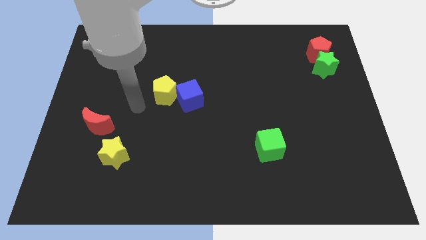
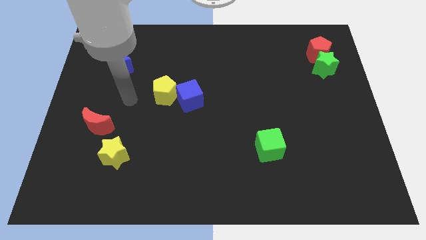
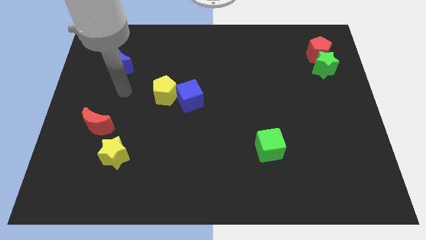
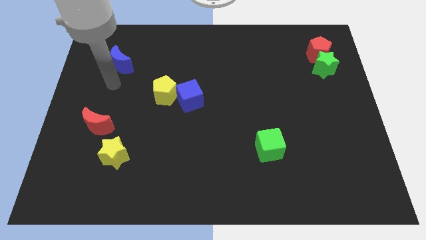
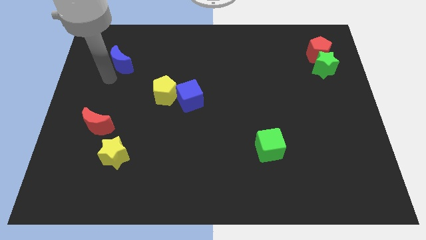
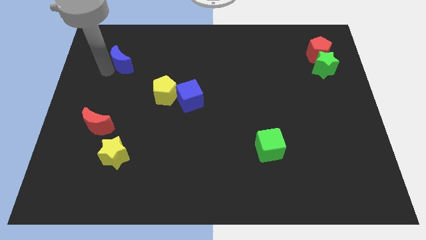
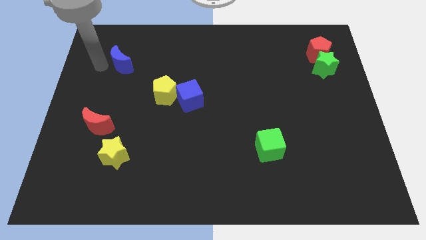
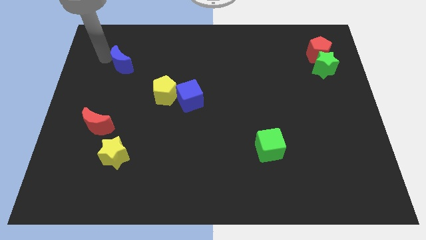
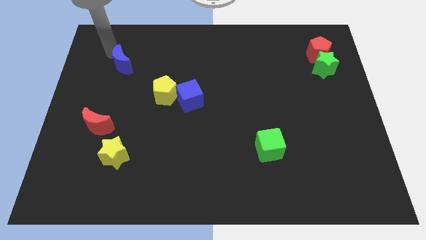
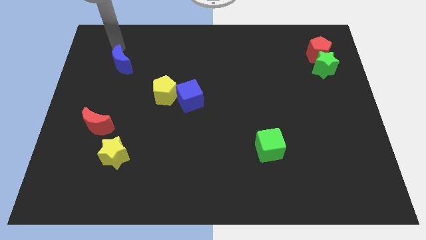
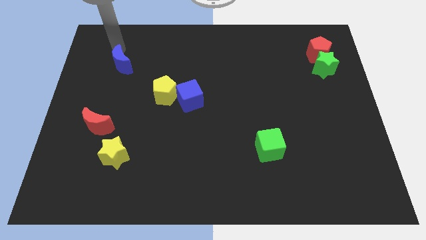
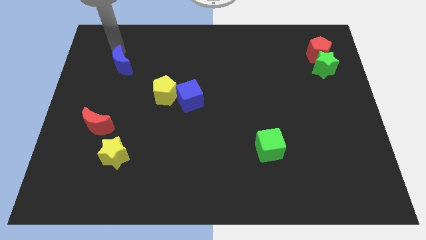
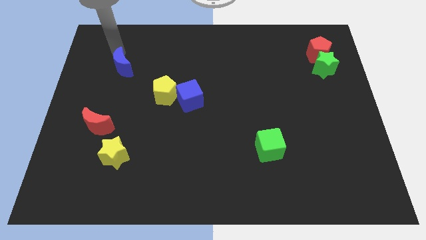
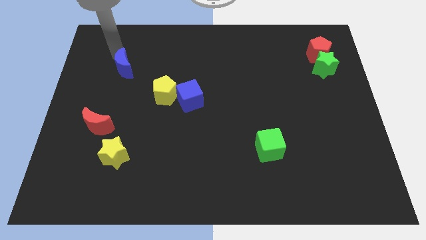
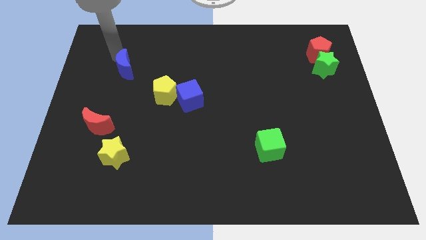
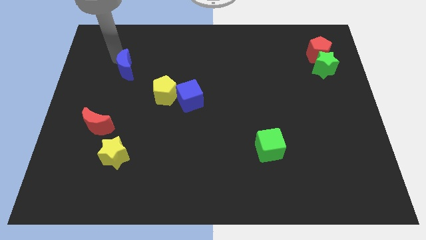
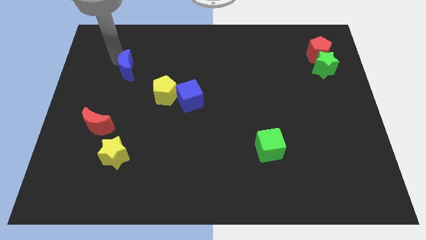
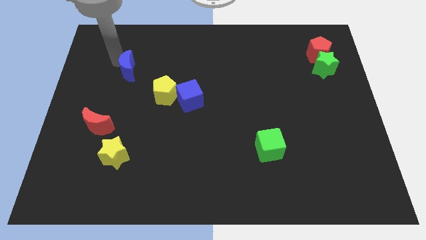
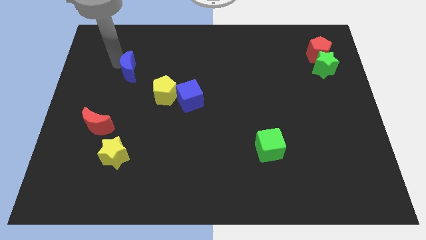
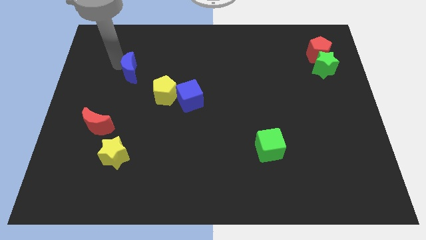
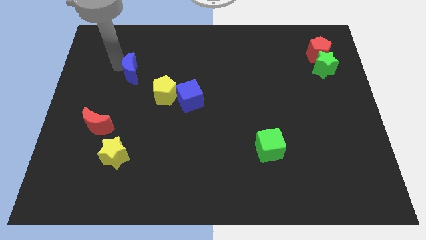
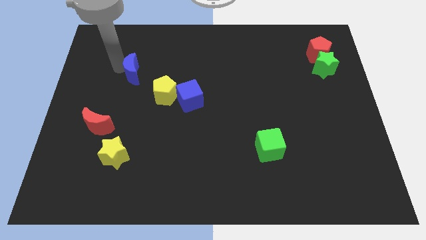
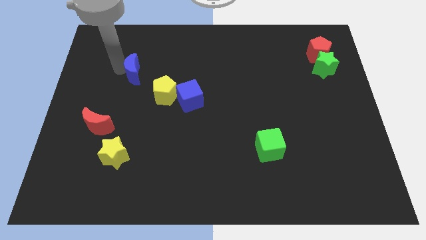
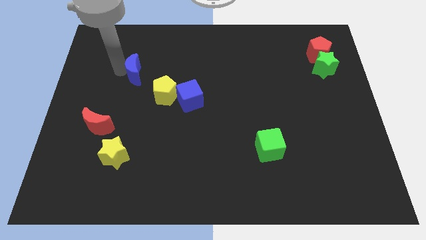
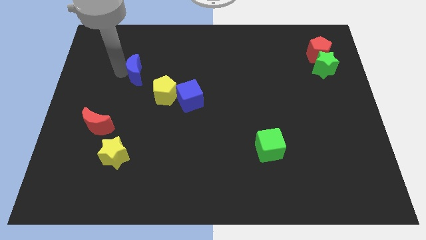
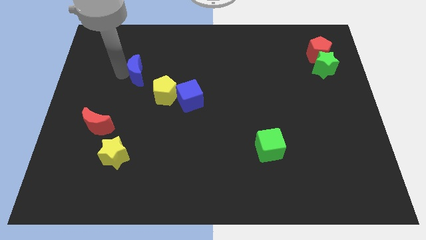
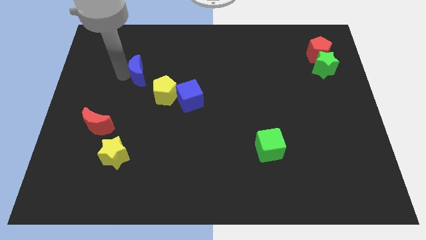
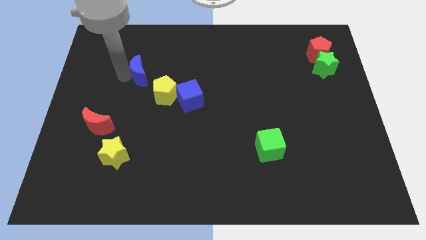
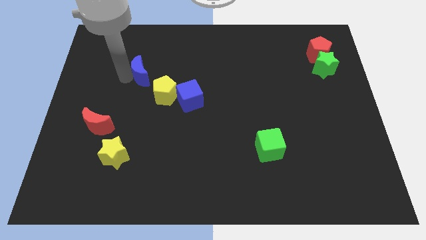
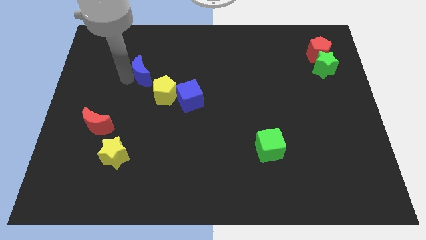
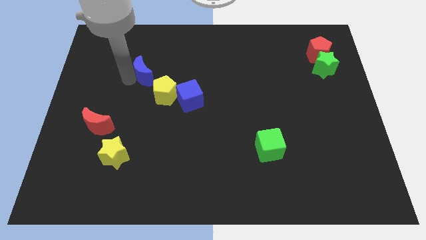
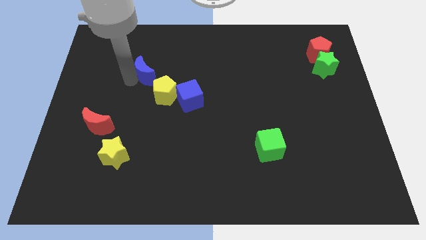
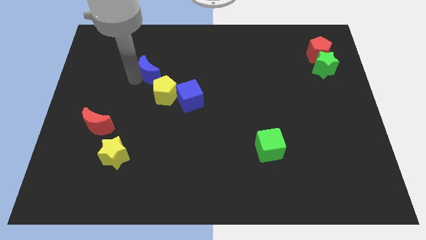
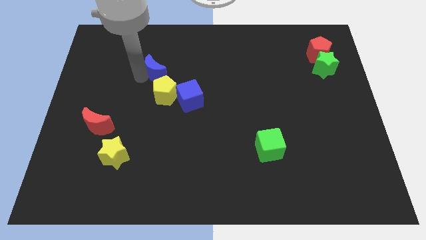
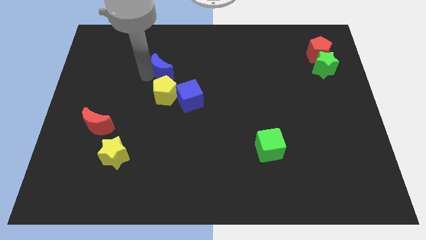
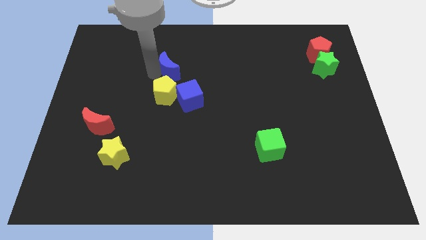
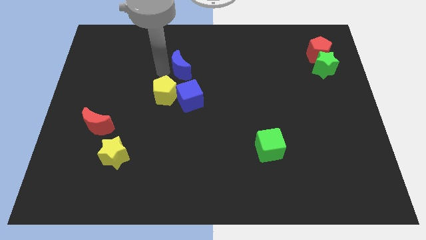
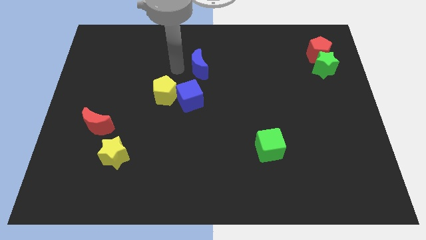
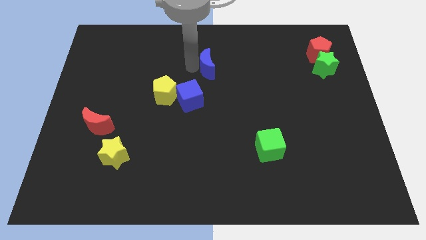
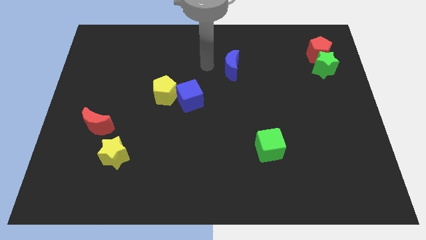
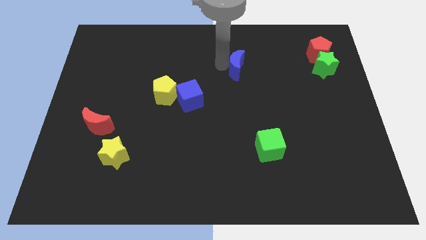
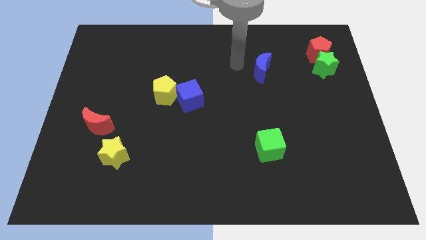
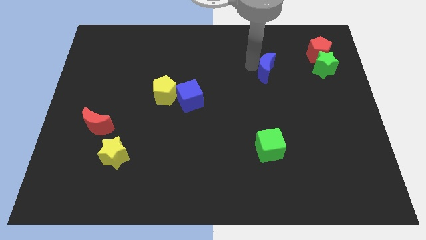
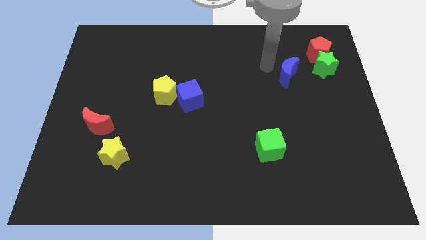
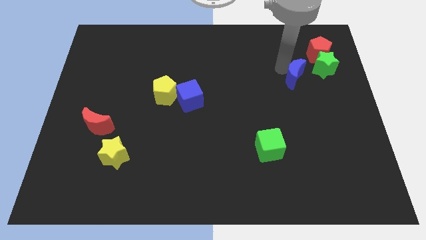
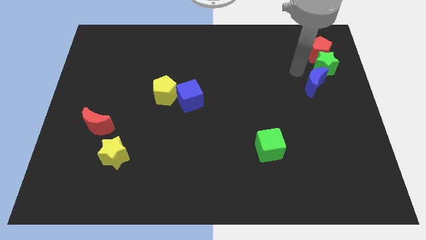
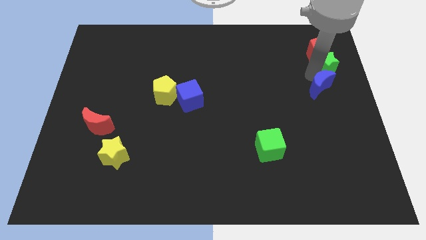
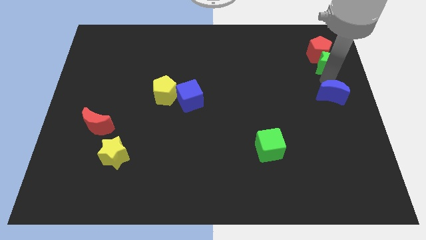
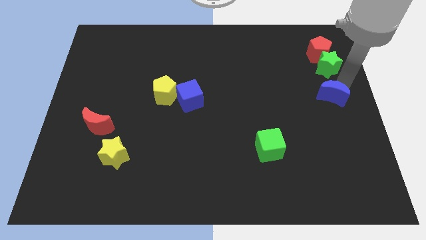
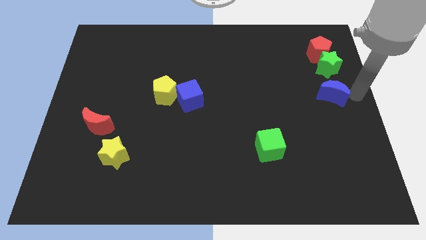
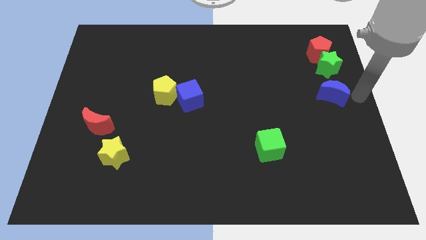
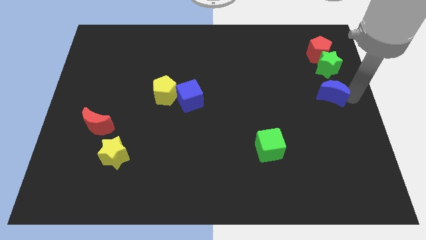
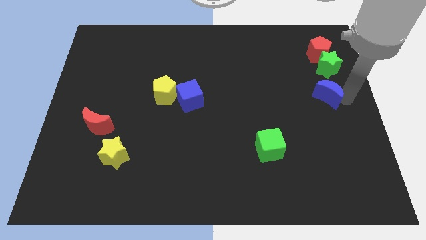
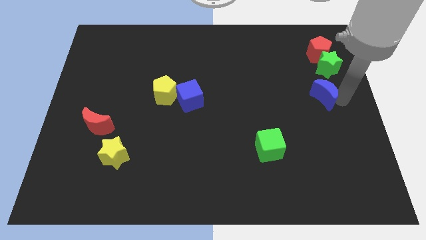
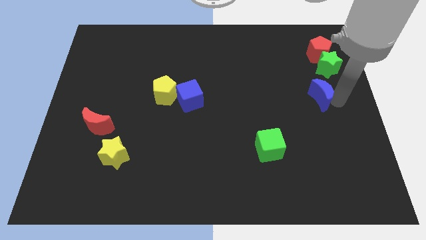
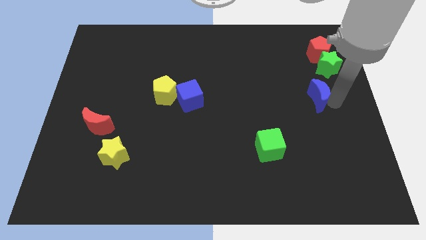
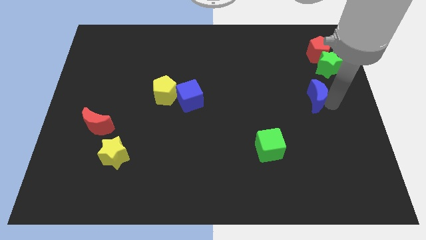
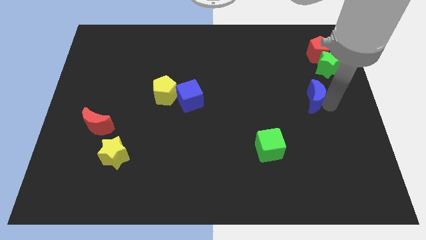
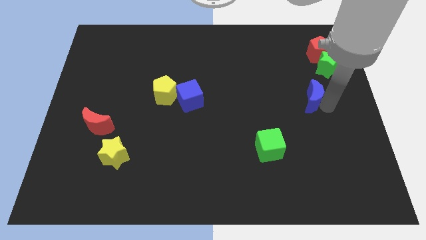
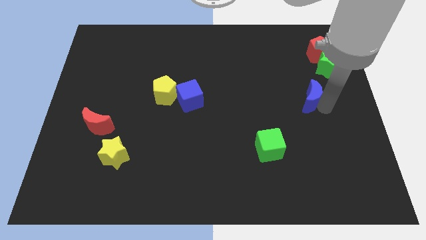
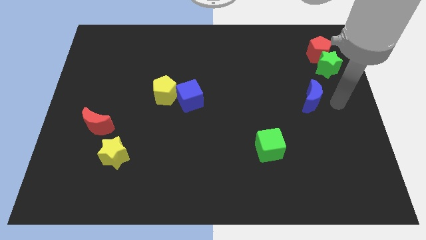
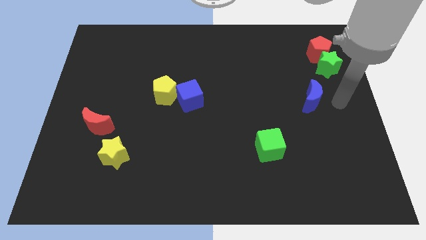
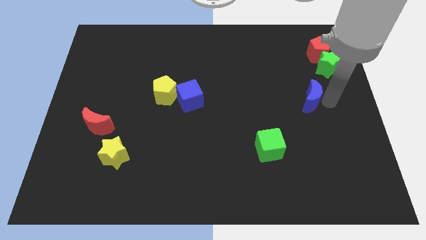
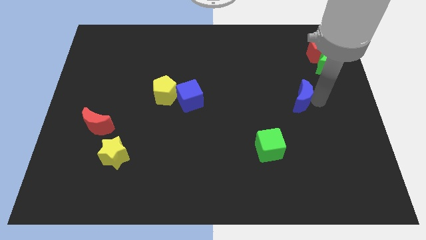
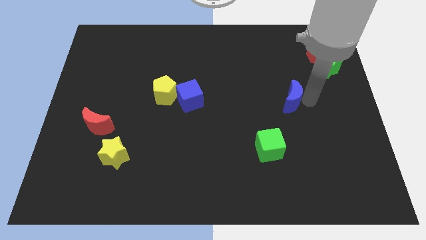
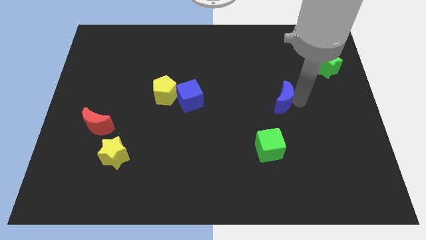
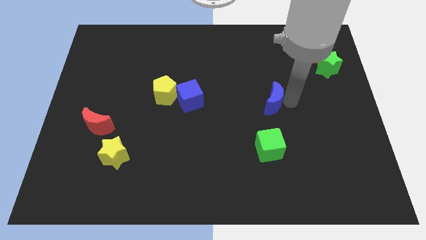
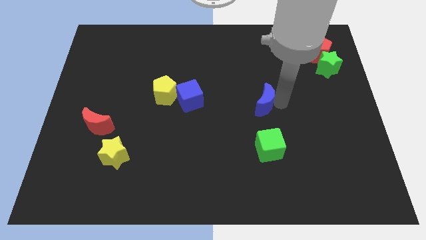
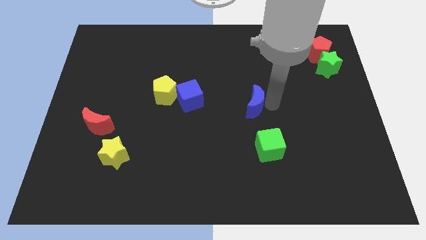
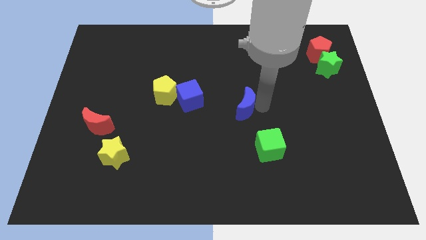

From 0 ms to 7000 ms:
slide the blue moon down and then right

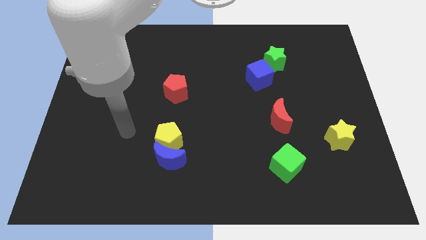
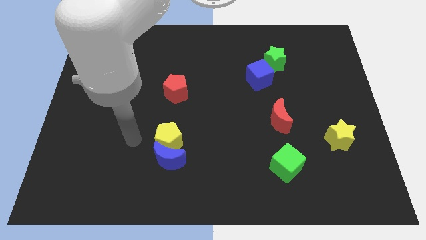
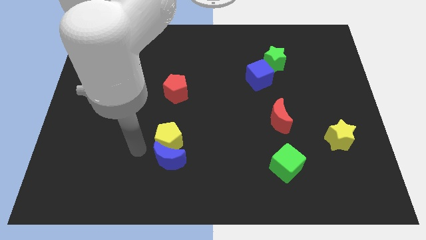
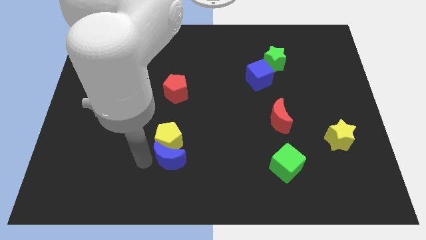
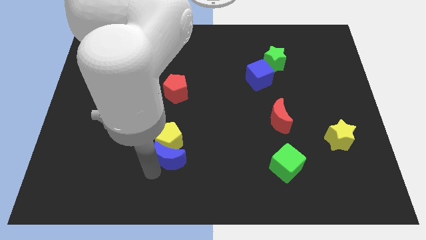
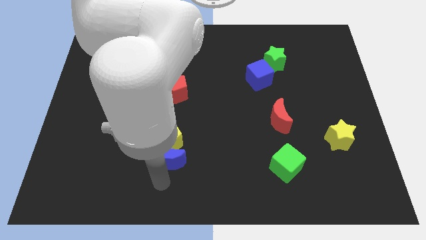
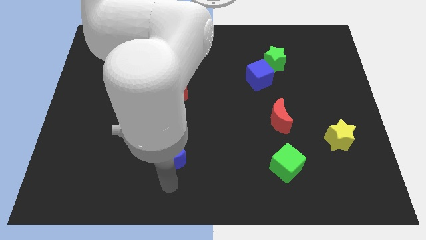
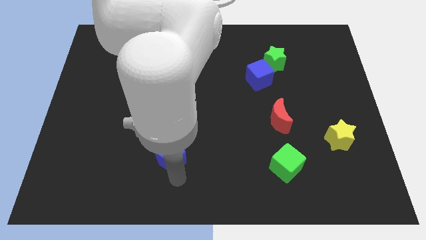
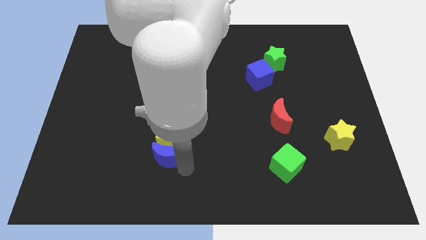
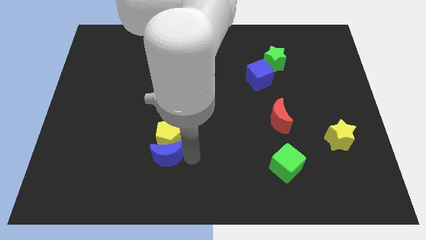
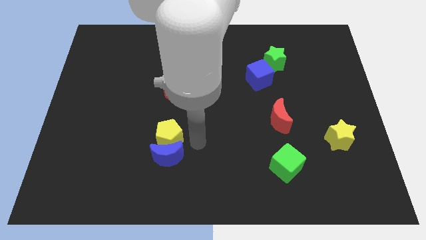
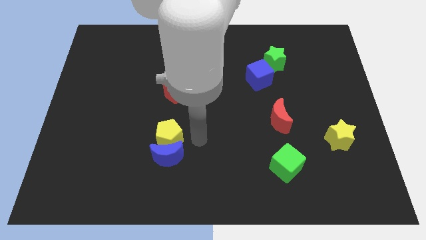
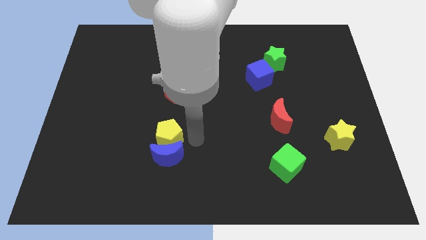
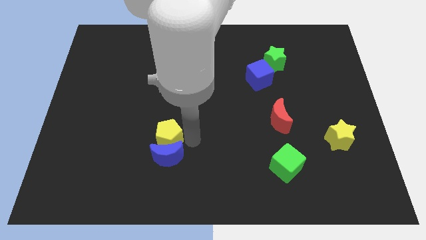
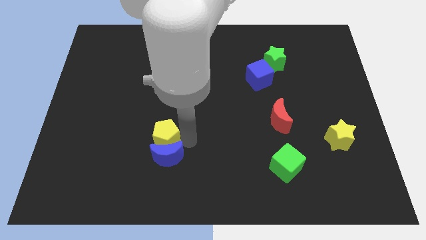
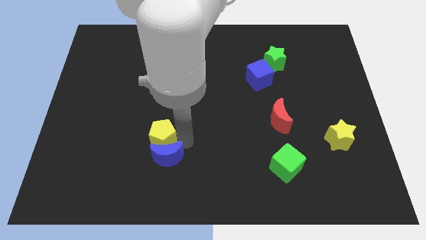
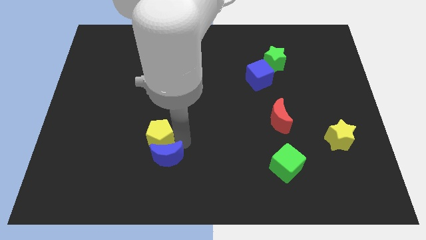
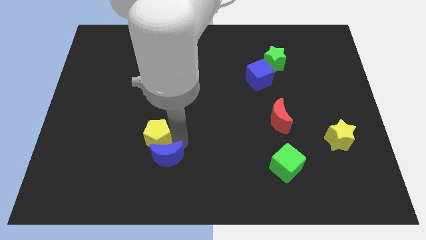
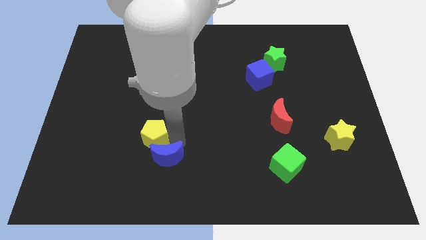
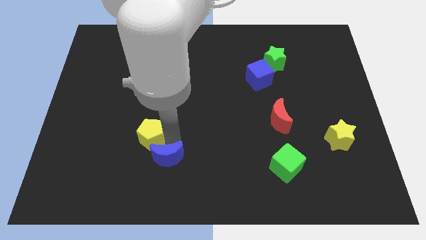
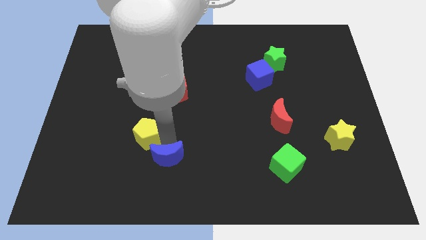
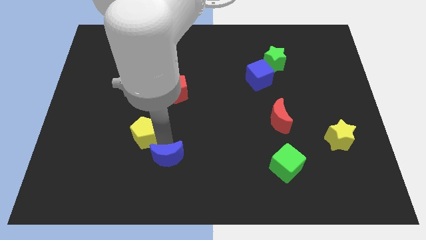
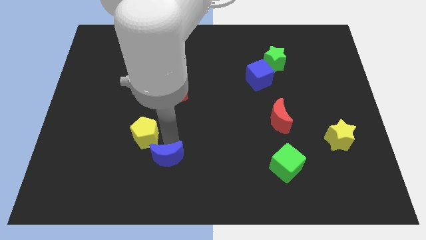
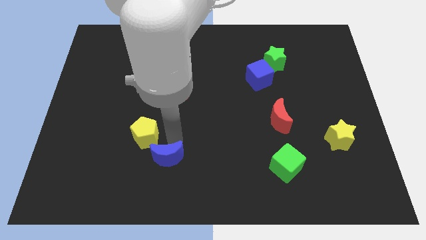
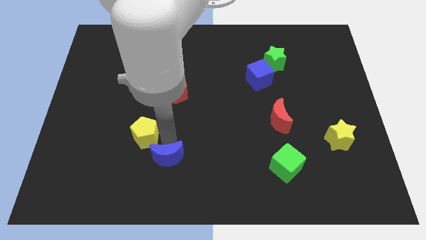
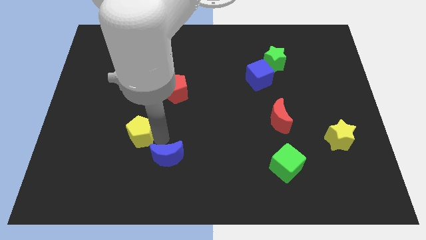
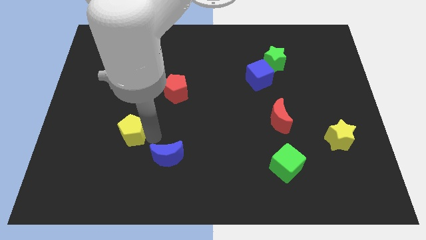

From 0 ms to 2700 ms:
push the yellow pentagon a little bit to the left
